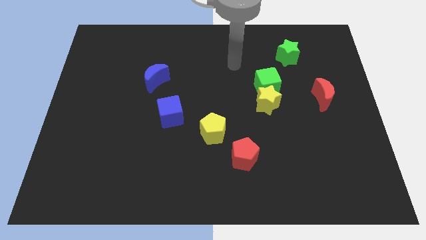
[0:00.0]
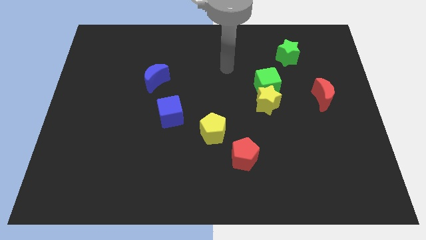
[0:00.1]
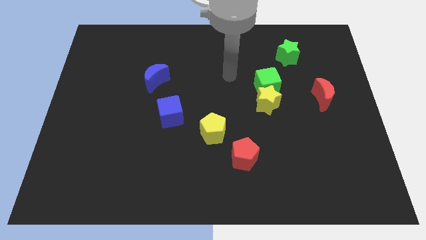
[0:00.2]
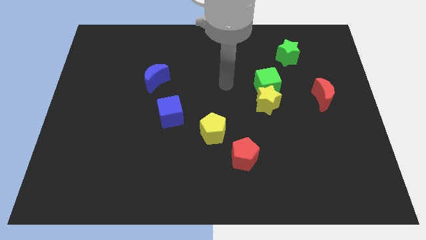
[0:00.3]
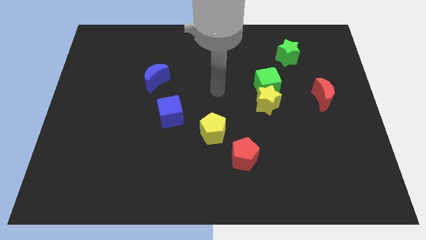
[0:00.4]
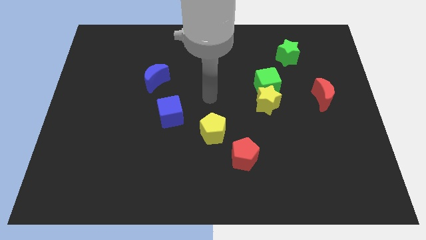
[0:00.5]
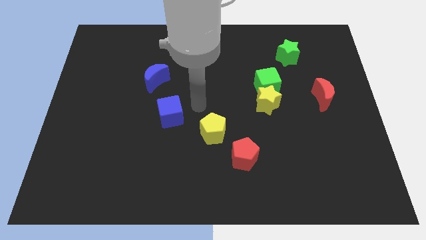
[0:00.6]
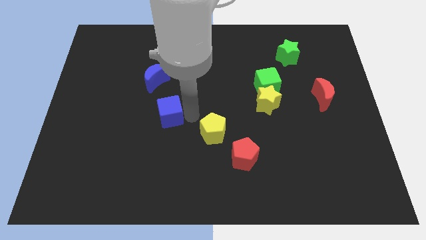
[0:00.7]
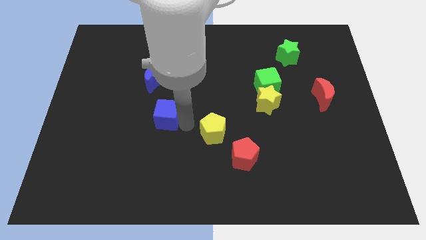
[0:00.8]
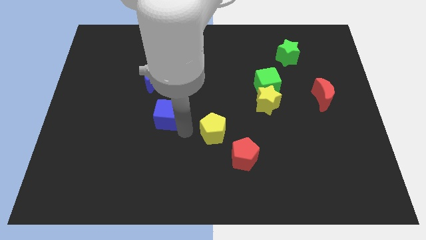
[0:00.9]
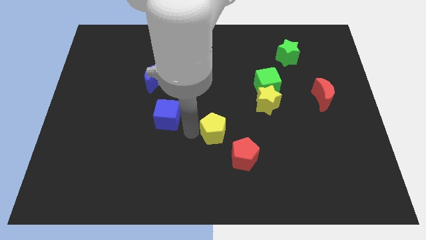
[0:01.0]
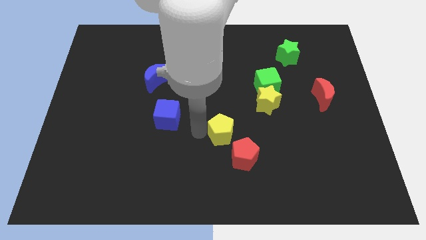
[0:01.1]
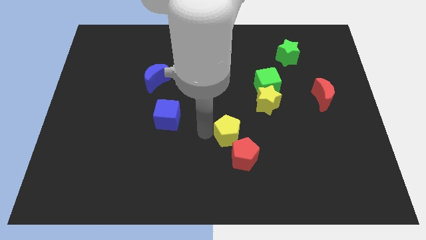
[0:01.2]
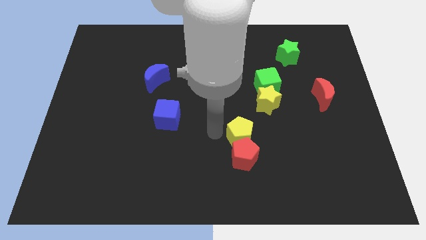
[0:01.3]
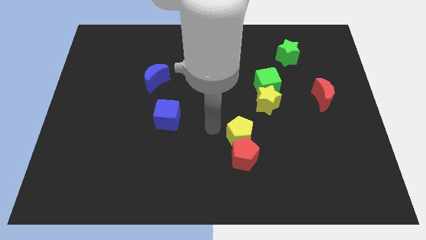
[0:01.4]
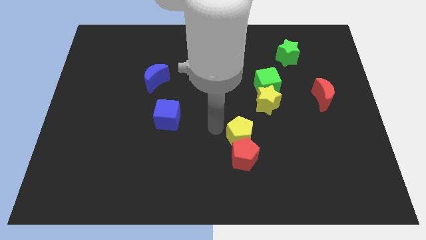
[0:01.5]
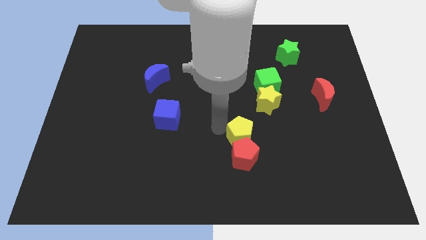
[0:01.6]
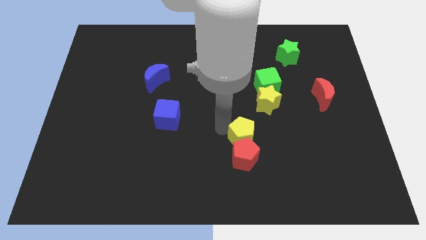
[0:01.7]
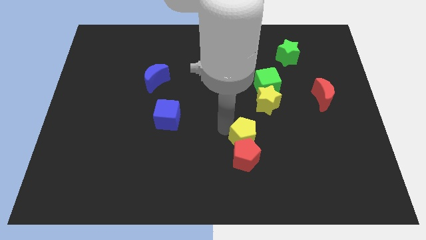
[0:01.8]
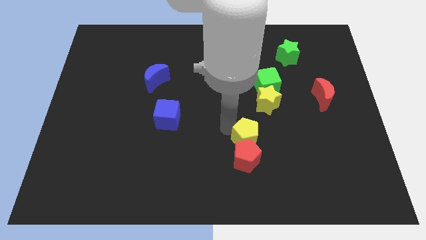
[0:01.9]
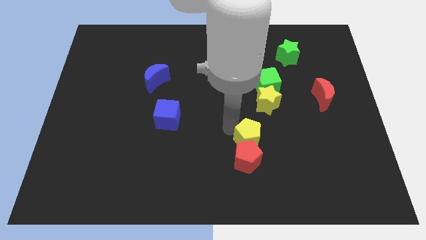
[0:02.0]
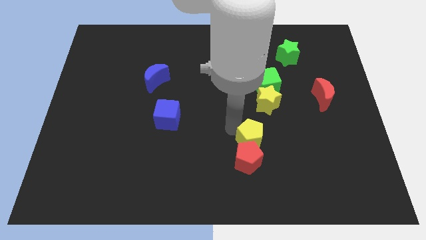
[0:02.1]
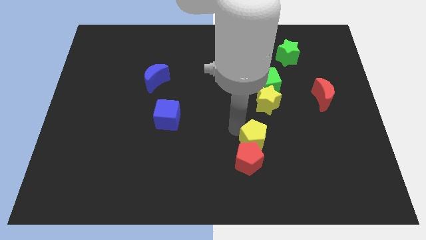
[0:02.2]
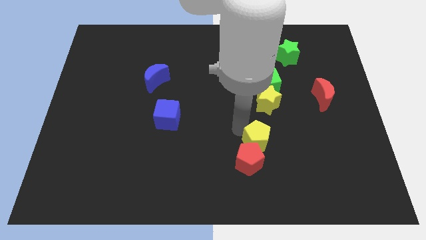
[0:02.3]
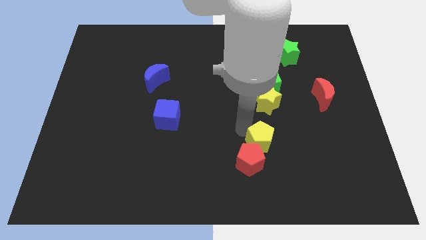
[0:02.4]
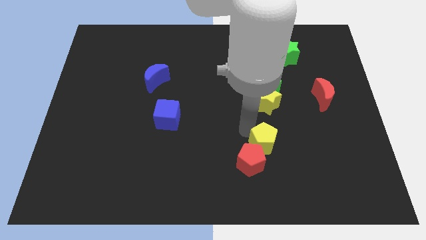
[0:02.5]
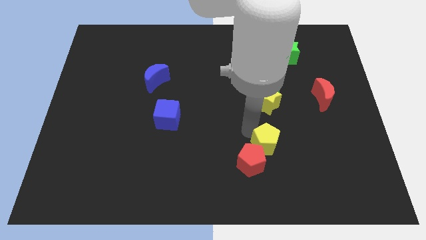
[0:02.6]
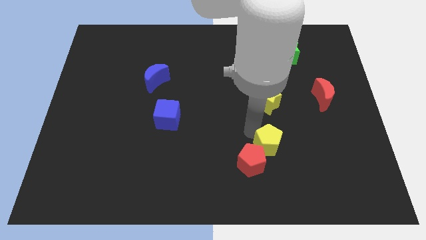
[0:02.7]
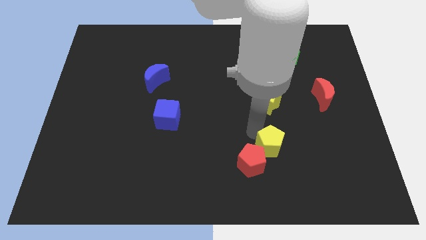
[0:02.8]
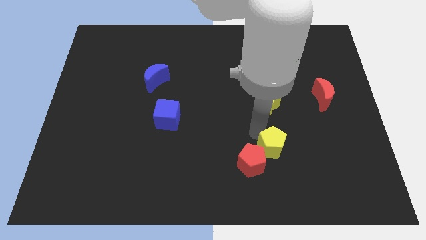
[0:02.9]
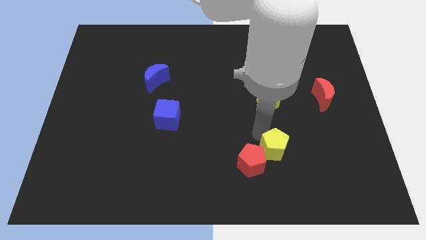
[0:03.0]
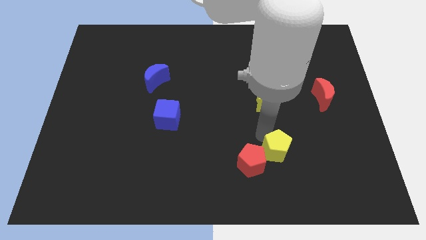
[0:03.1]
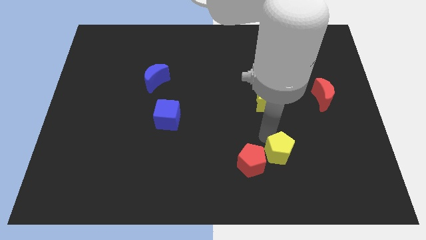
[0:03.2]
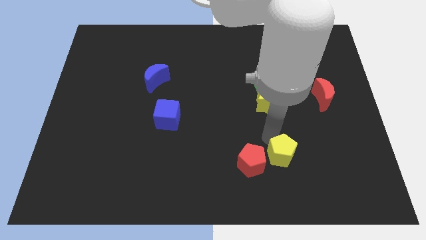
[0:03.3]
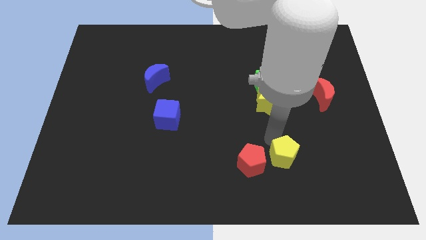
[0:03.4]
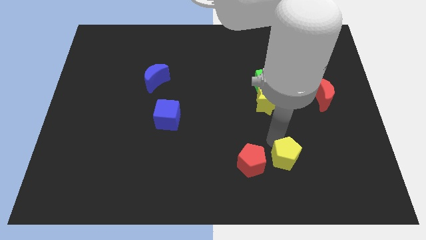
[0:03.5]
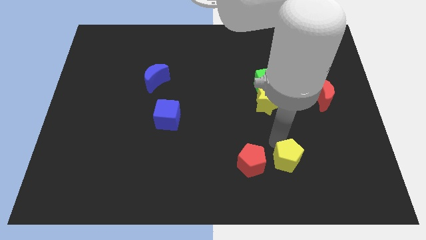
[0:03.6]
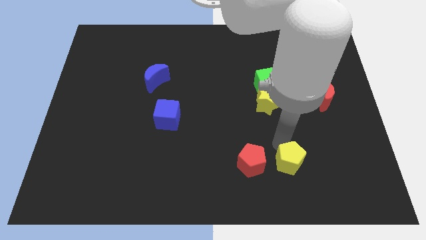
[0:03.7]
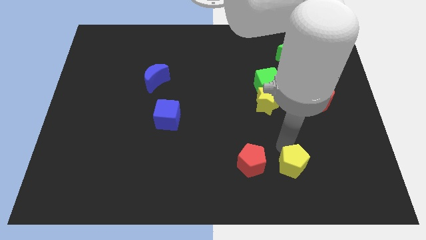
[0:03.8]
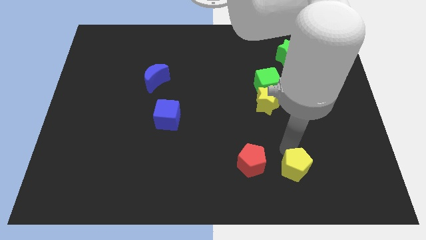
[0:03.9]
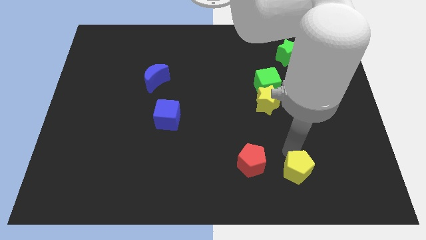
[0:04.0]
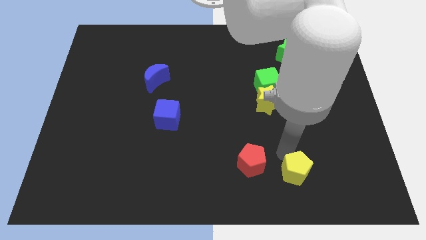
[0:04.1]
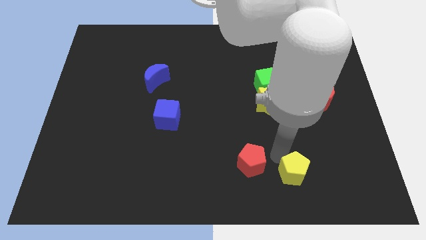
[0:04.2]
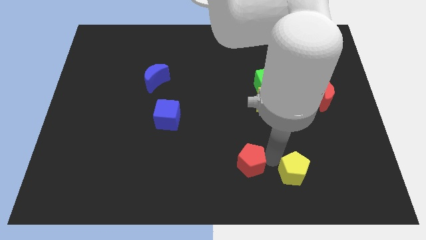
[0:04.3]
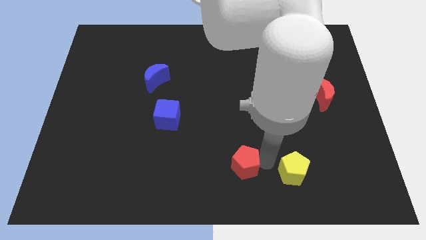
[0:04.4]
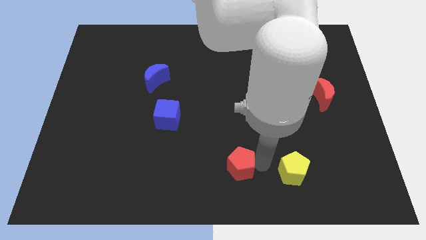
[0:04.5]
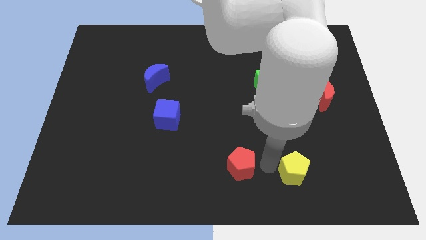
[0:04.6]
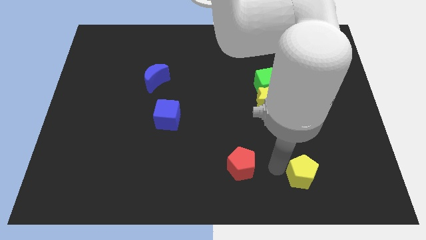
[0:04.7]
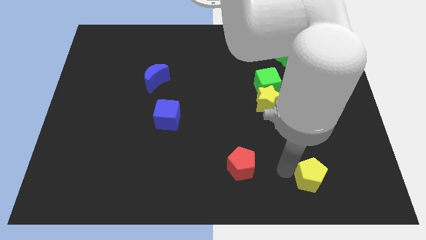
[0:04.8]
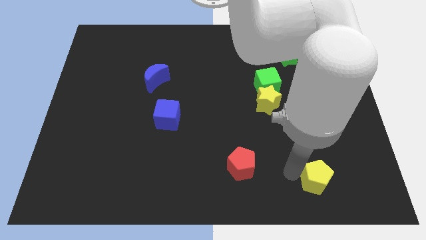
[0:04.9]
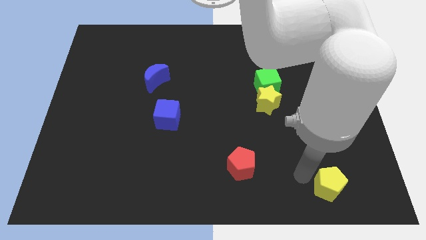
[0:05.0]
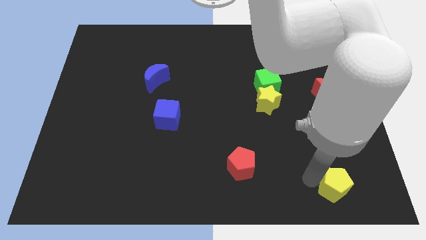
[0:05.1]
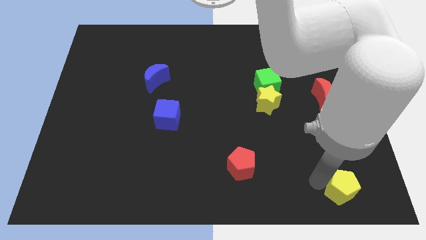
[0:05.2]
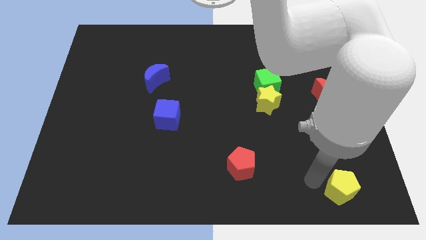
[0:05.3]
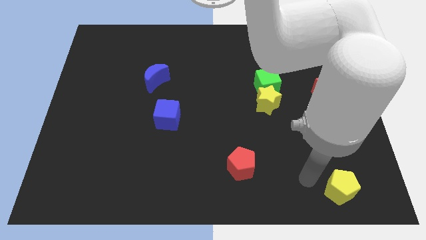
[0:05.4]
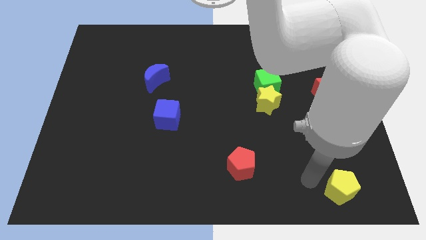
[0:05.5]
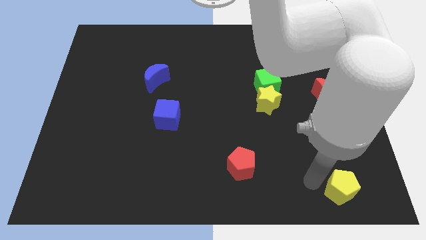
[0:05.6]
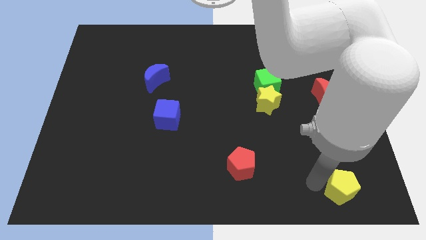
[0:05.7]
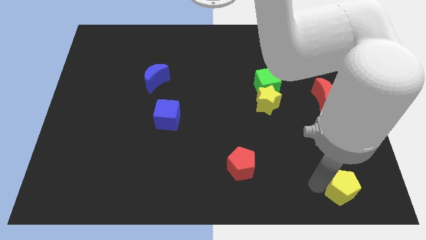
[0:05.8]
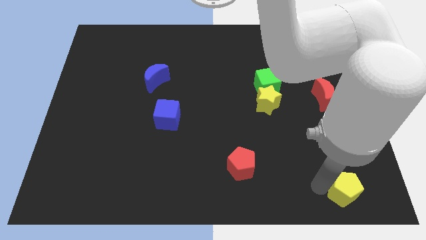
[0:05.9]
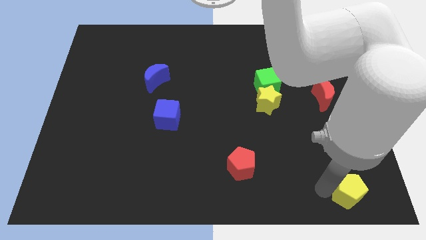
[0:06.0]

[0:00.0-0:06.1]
move the yellow pentagon to the bottom right
